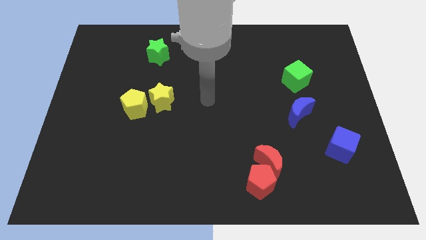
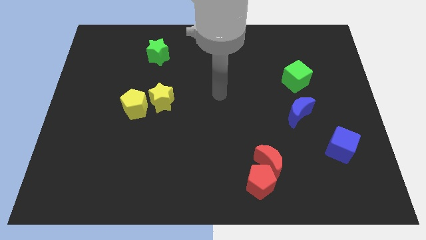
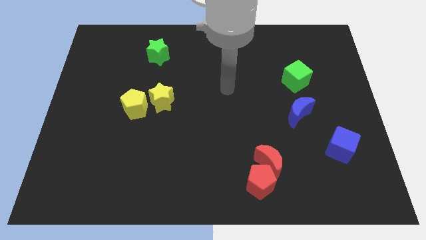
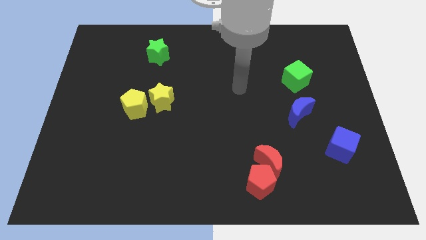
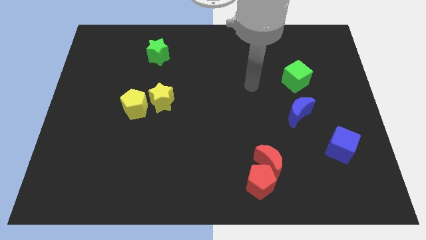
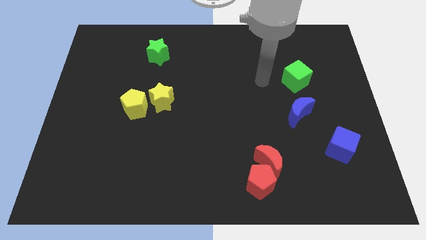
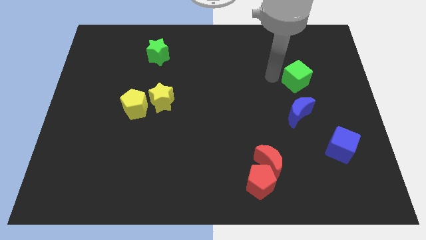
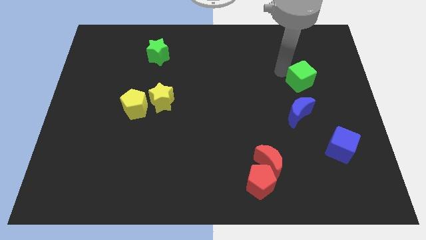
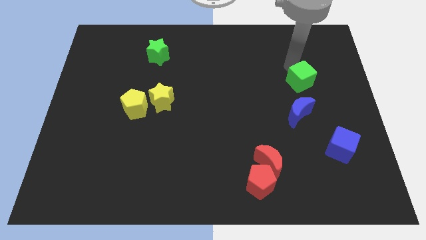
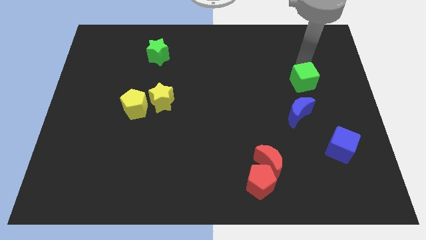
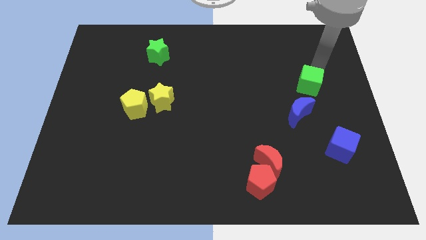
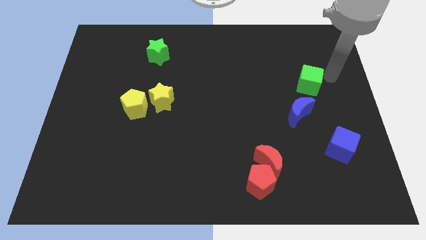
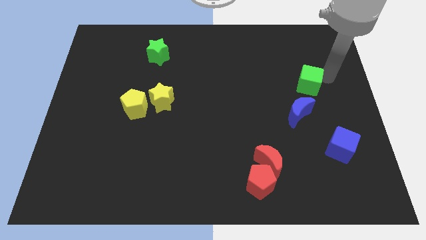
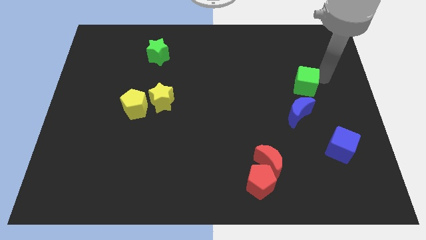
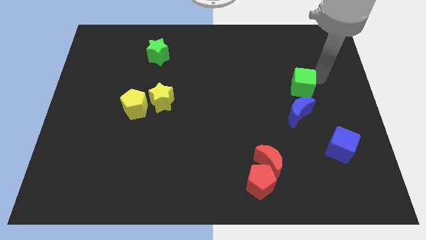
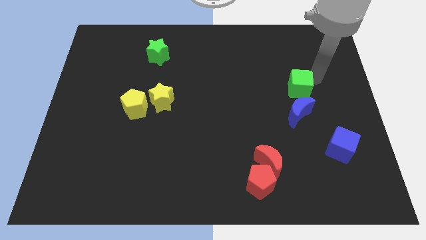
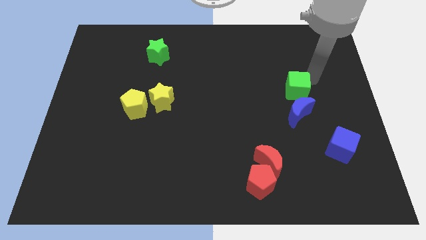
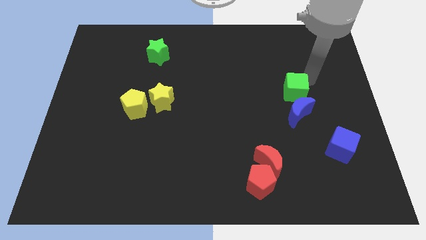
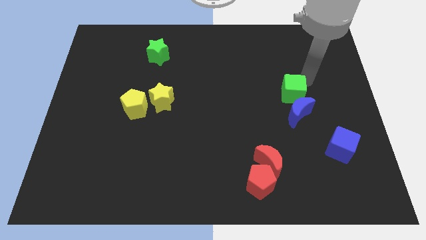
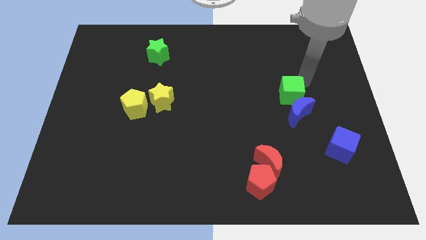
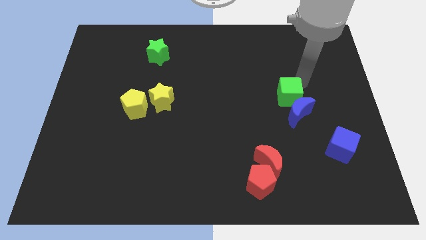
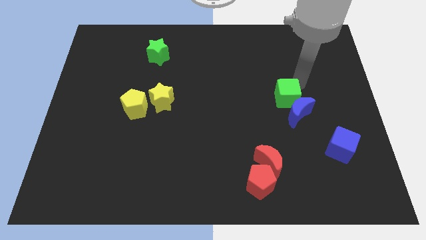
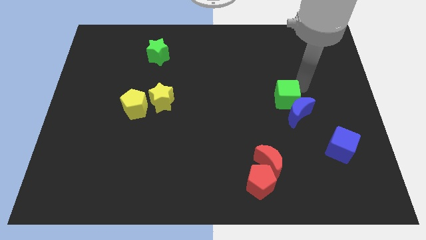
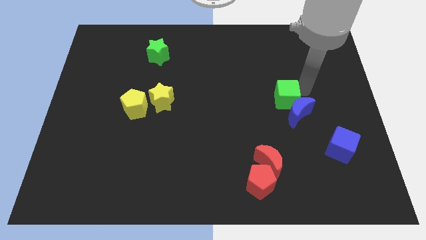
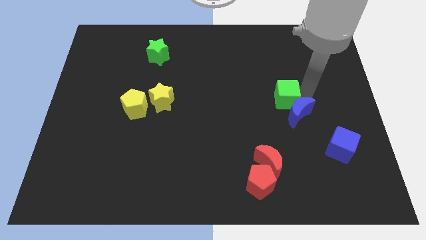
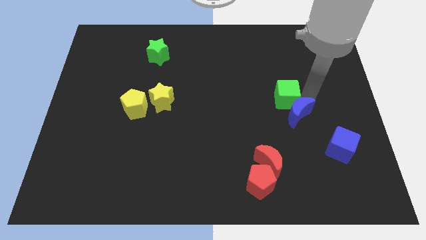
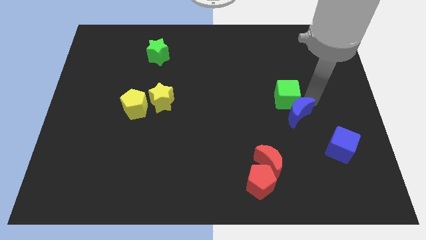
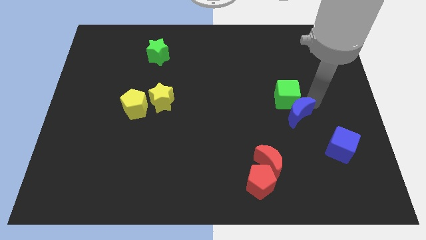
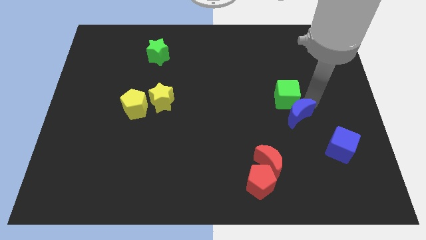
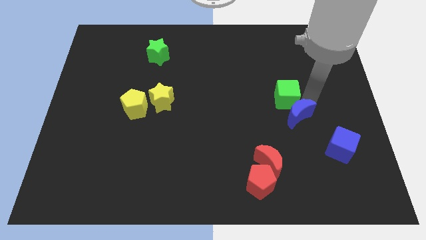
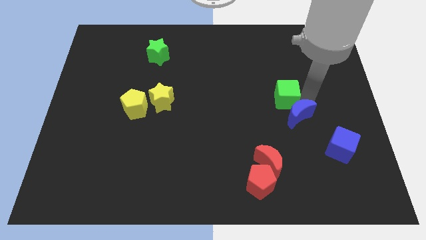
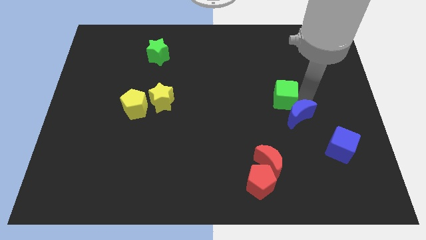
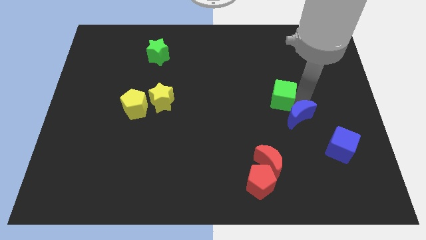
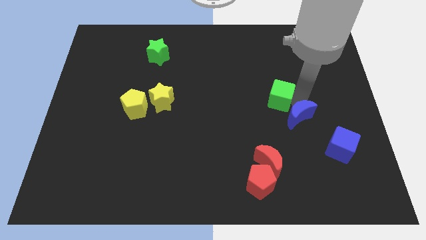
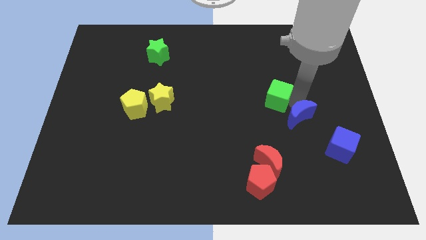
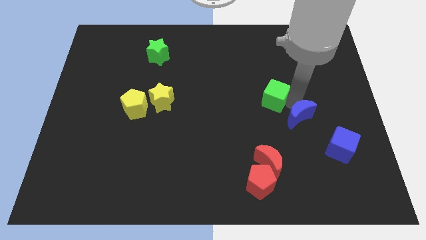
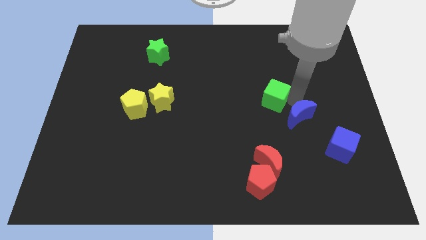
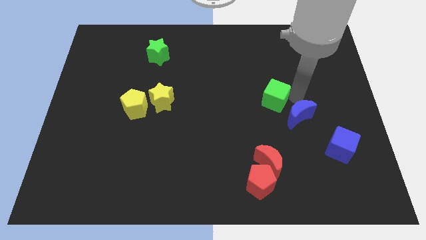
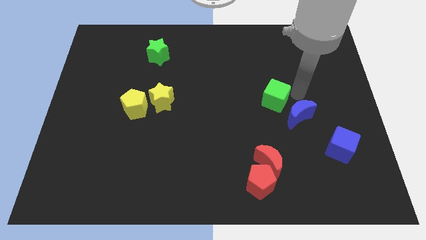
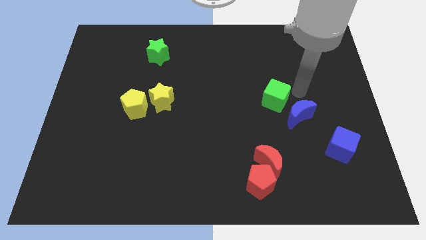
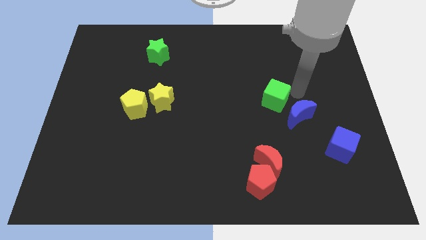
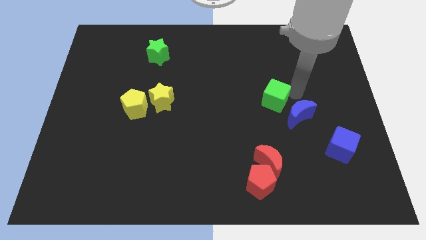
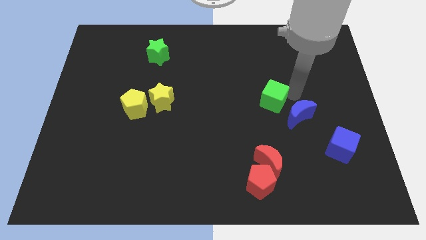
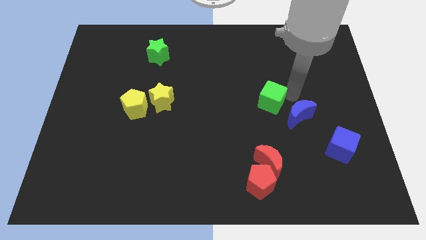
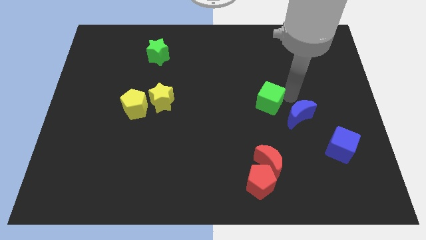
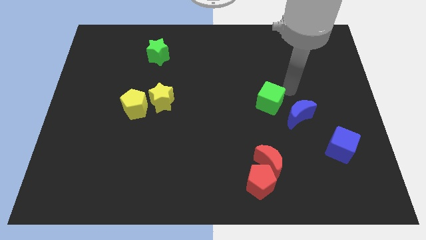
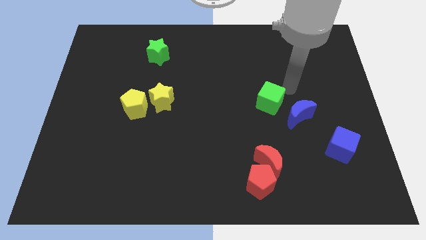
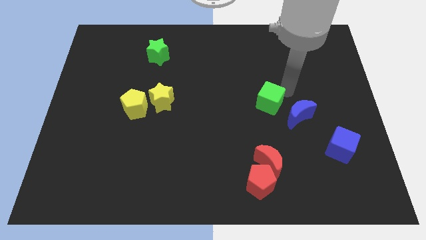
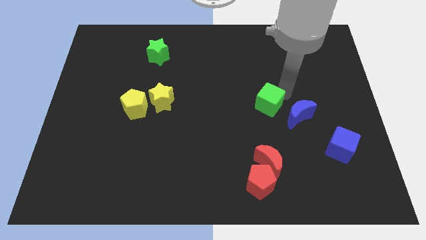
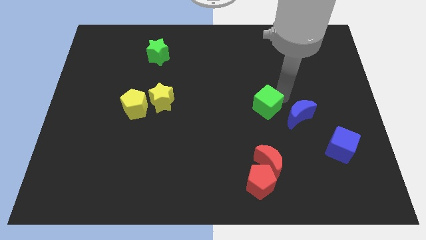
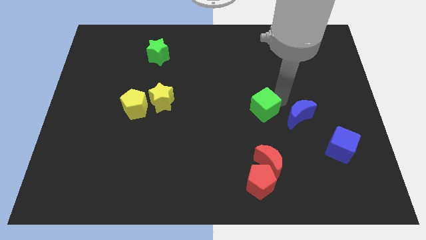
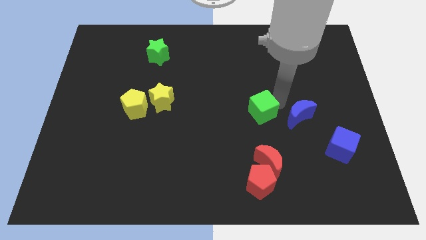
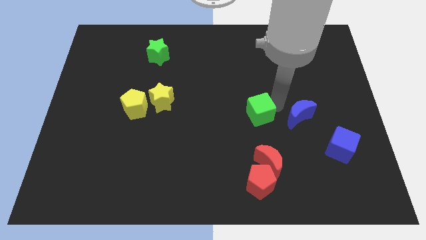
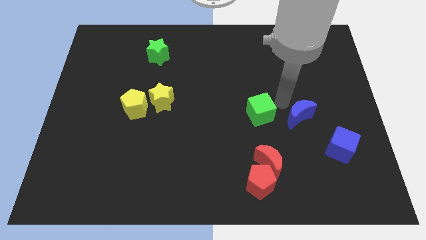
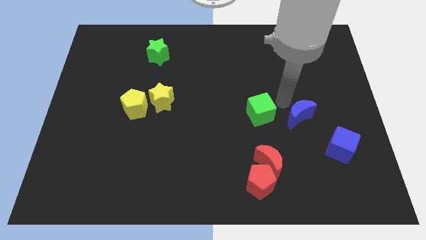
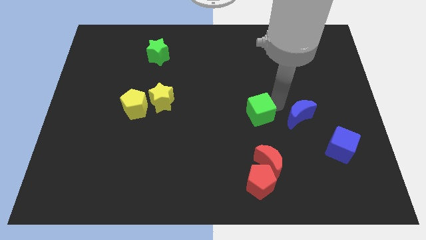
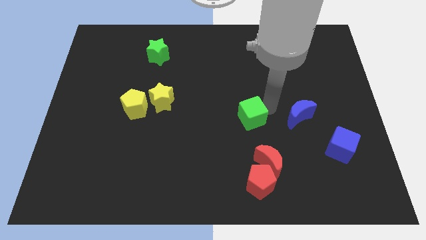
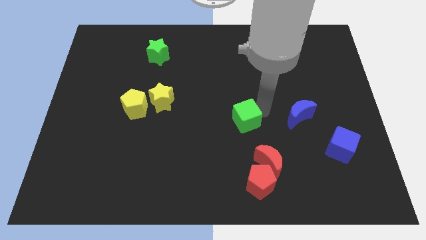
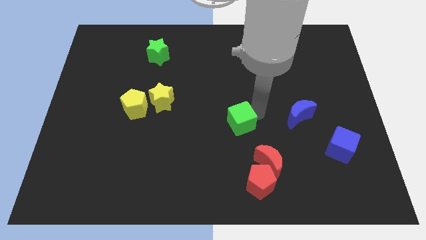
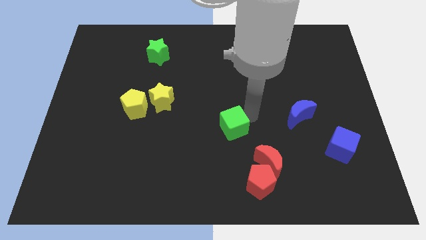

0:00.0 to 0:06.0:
push the green cube down and left

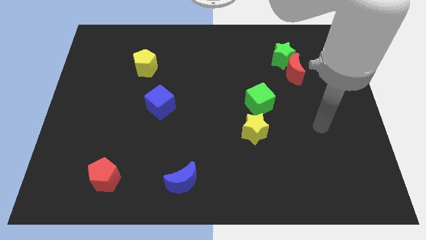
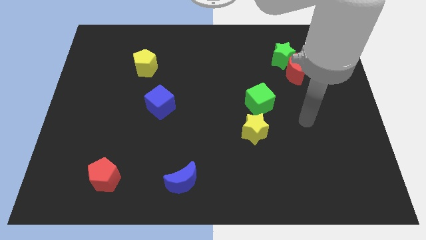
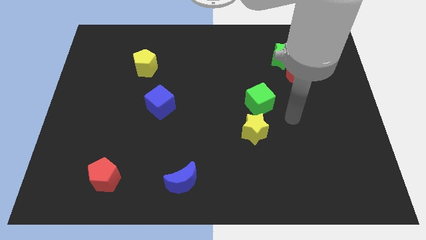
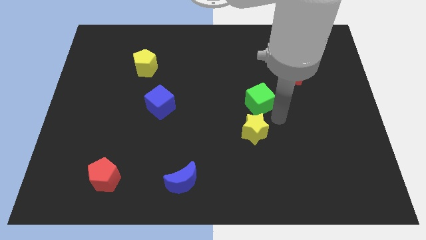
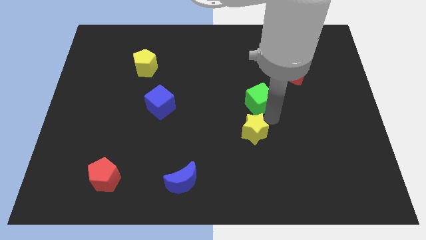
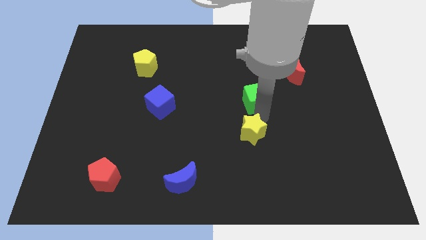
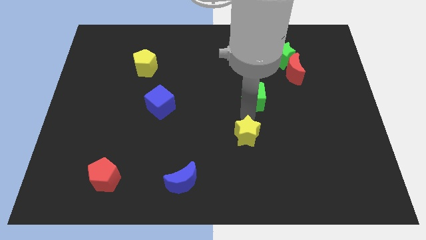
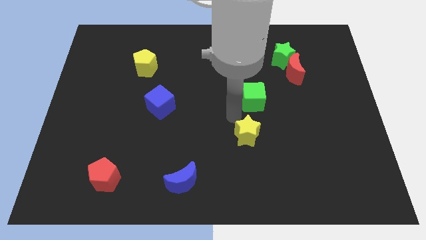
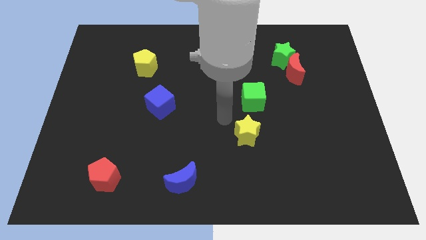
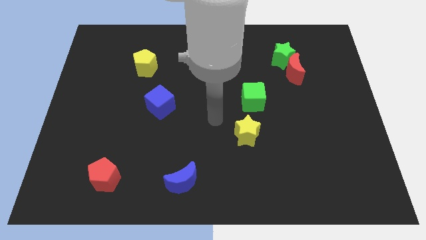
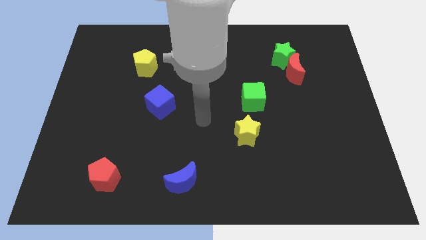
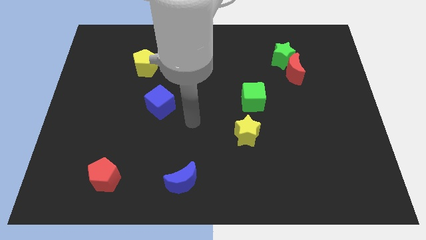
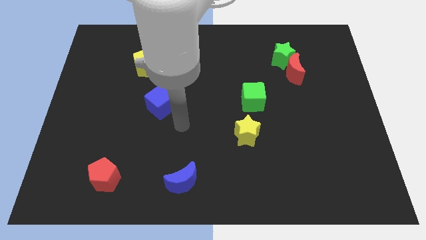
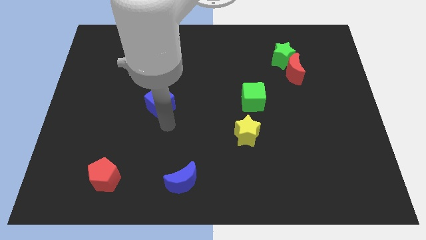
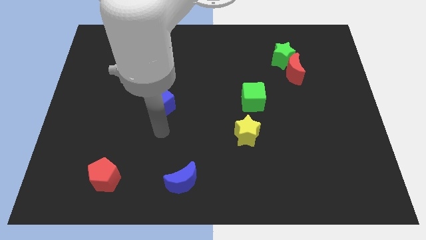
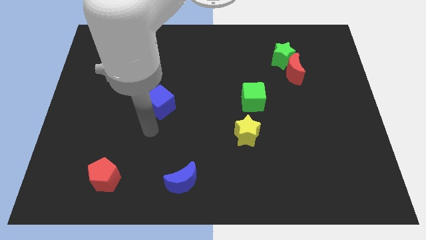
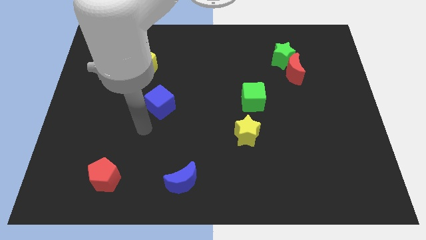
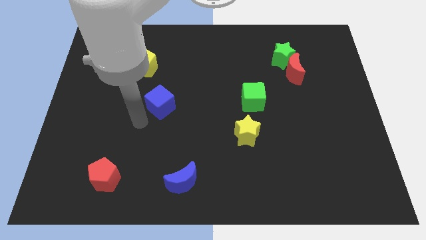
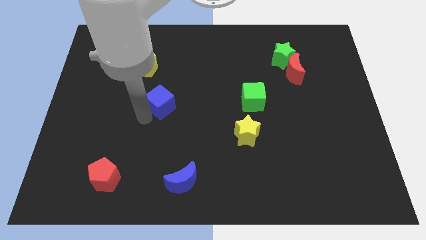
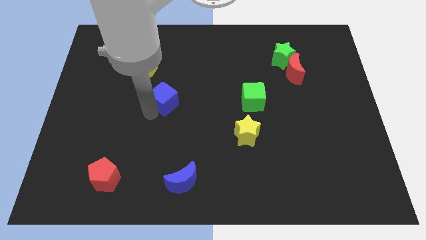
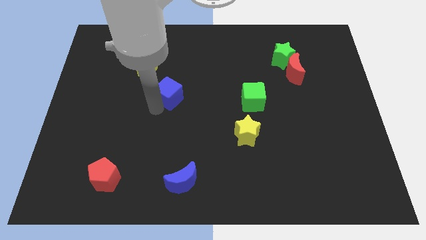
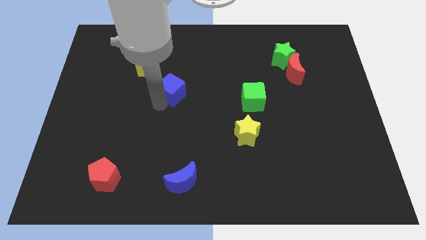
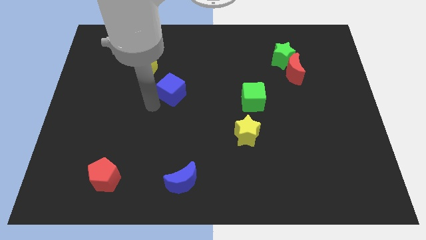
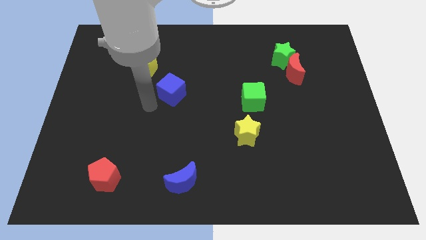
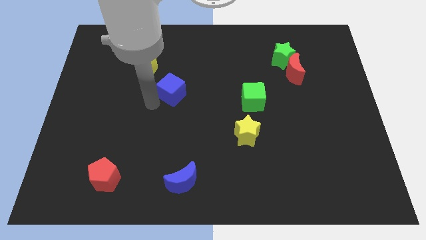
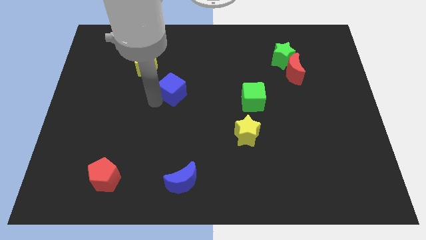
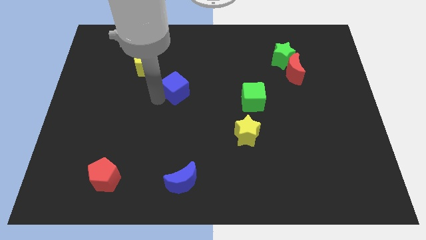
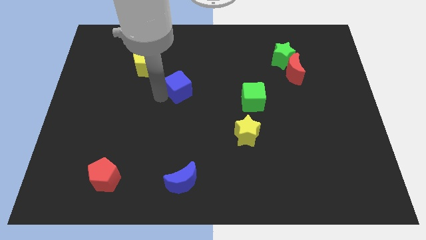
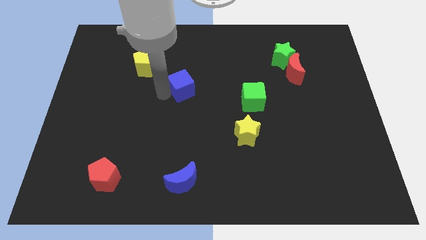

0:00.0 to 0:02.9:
push the blue cube a little diagonally upwards and right
